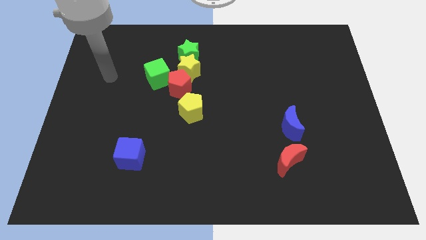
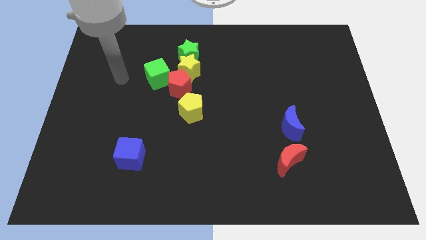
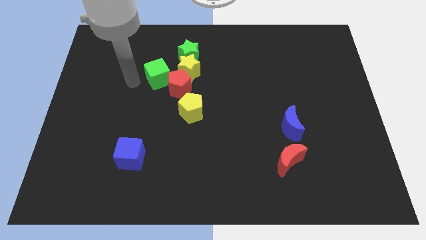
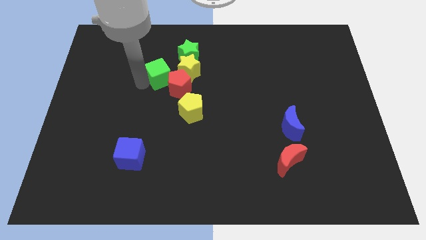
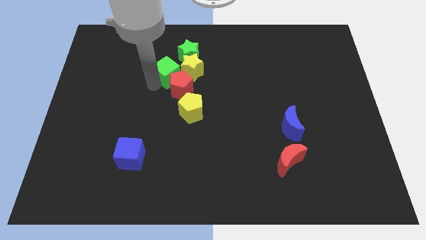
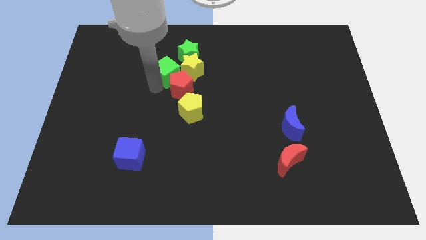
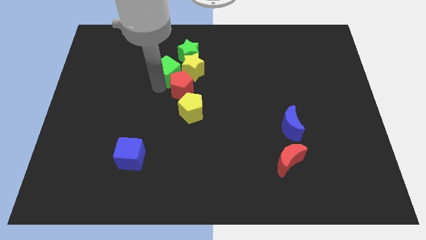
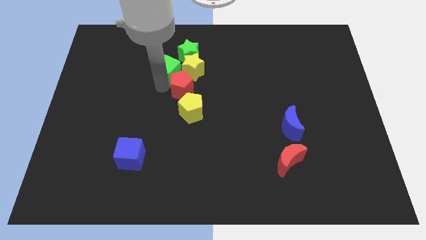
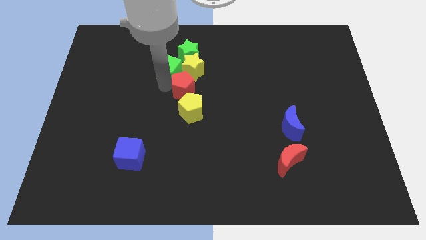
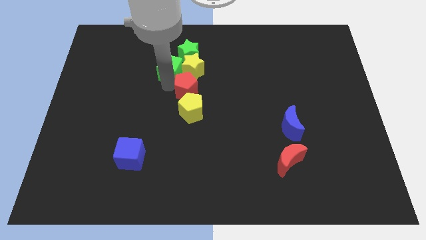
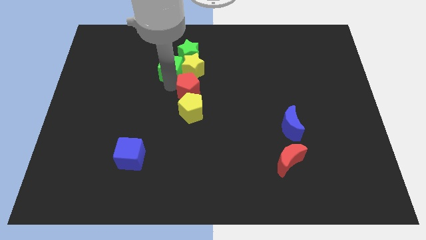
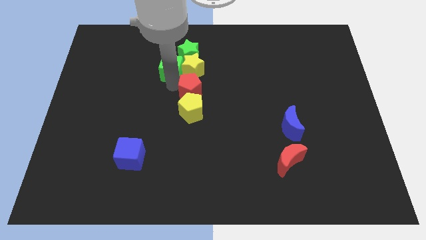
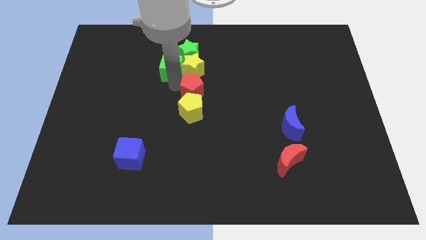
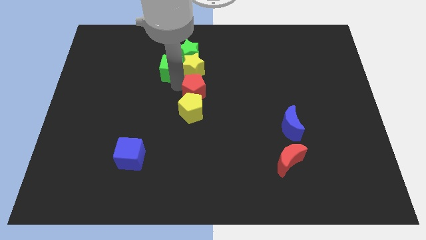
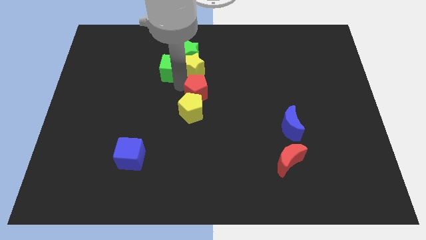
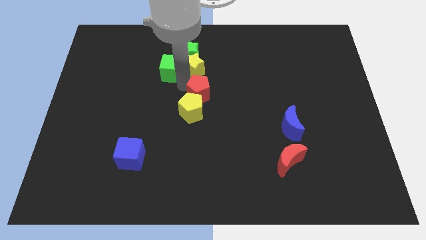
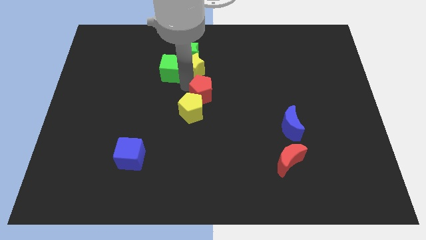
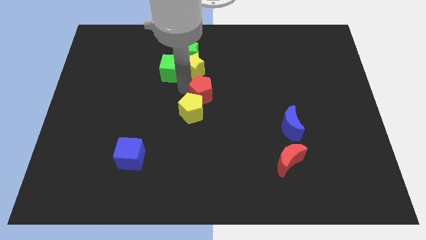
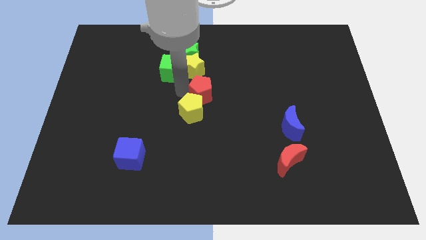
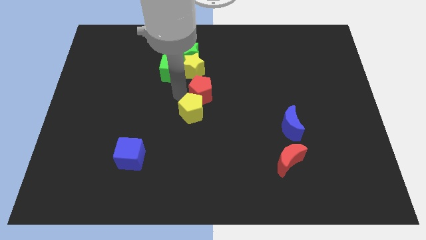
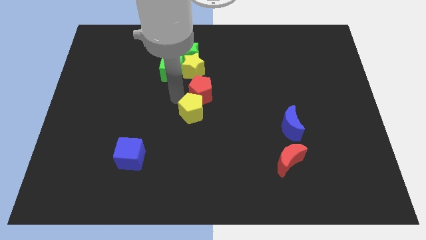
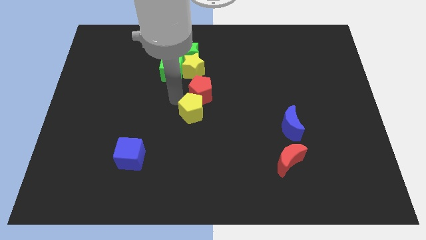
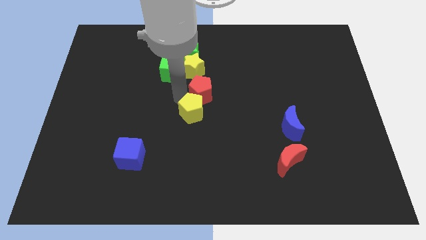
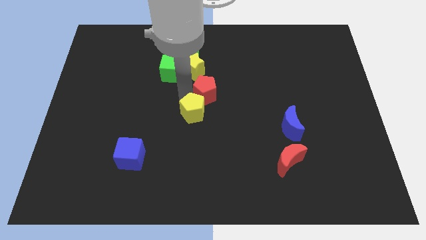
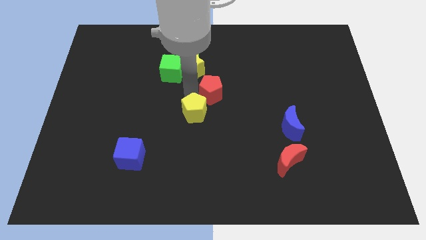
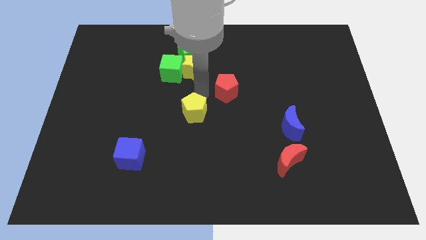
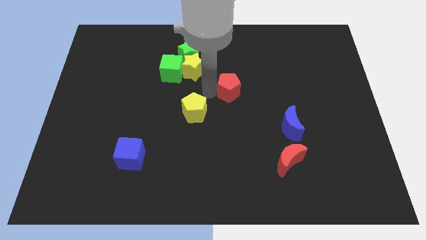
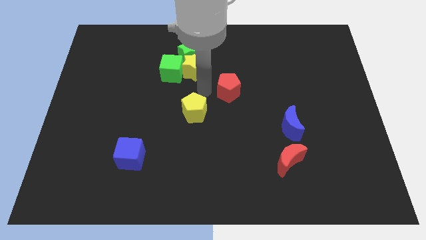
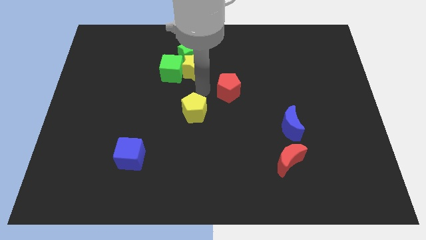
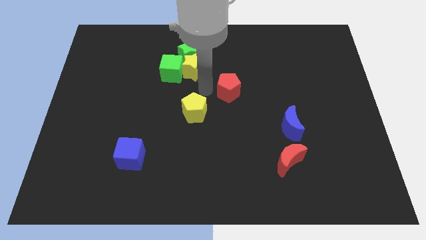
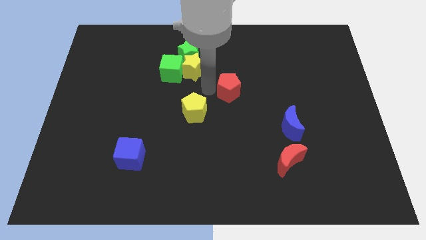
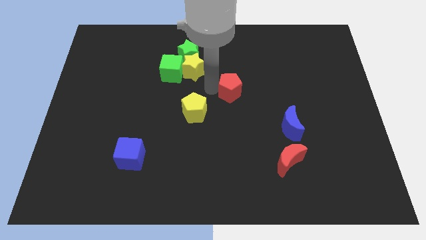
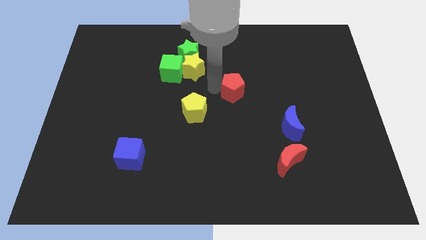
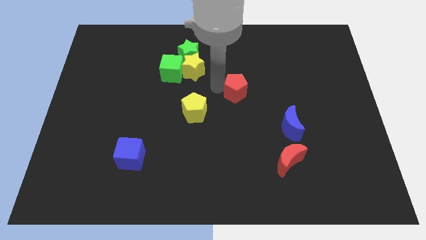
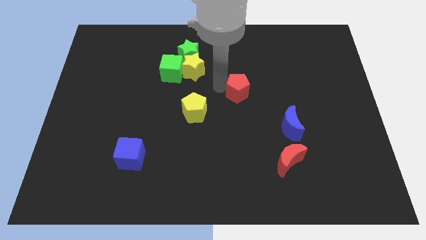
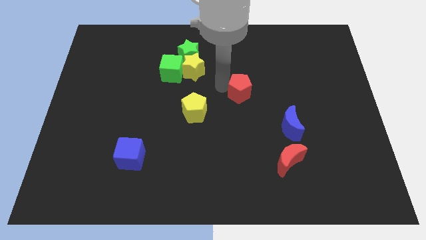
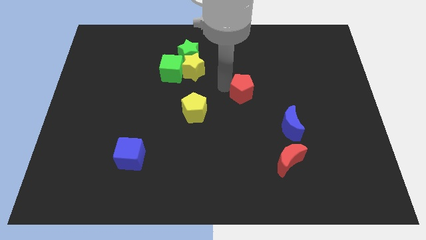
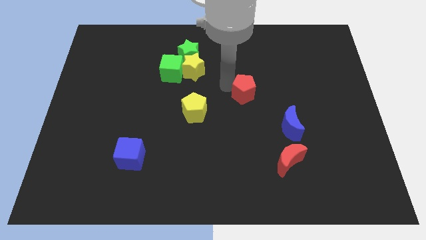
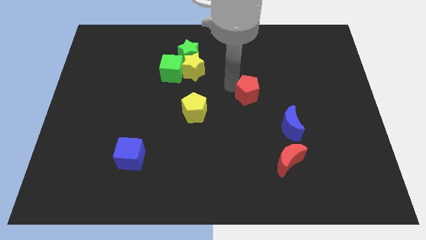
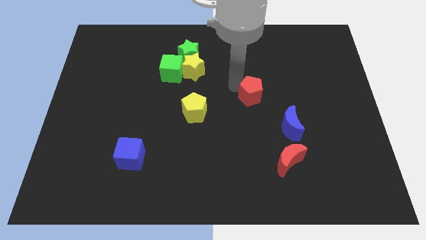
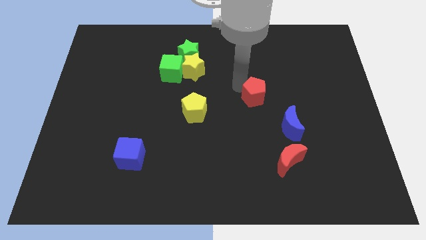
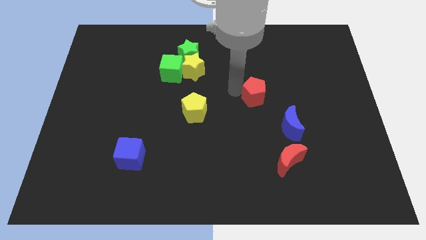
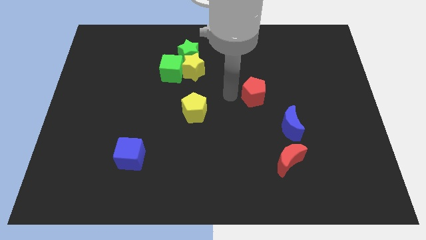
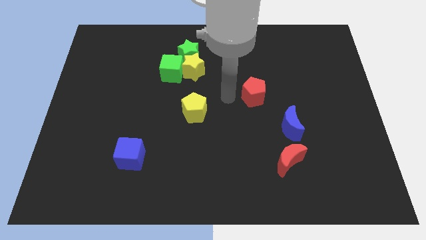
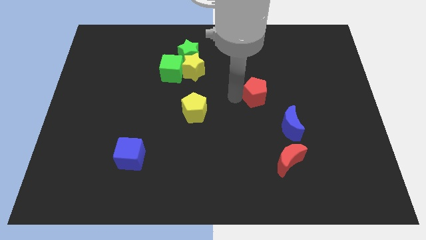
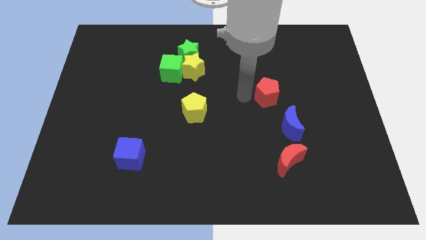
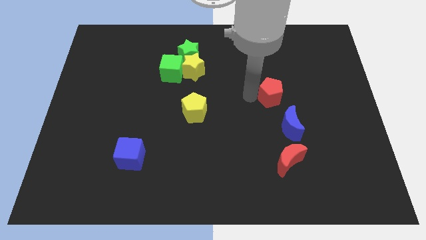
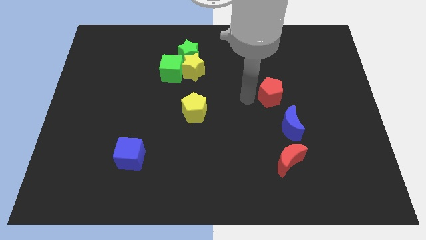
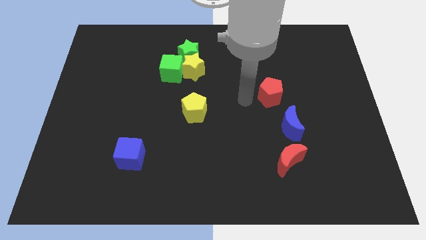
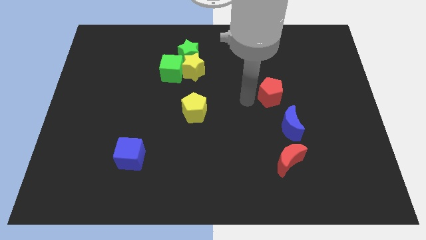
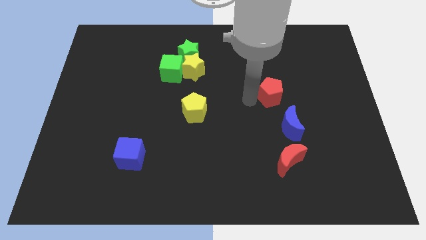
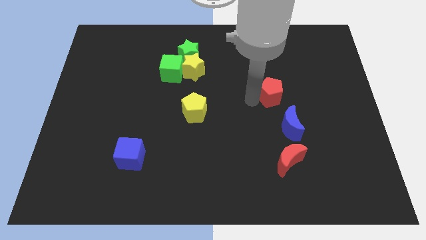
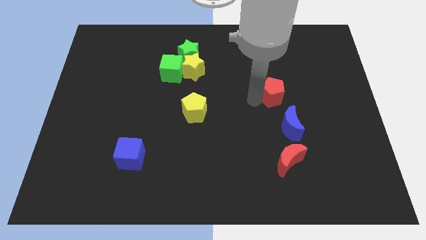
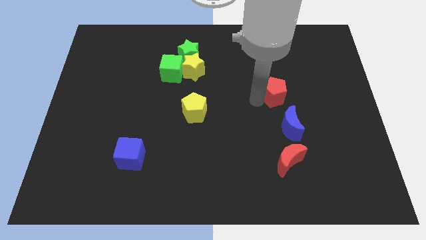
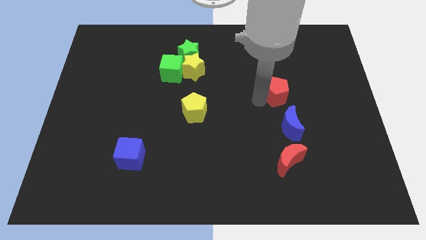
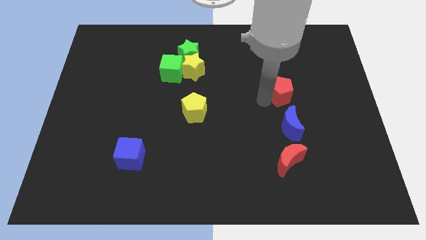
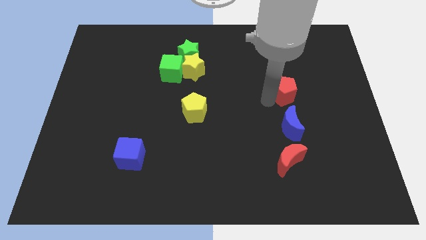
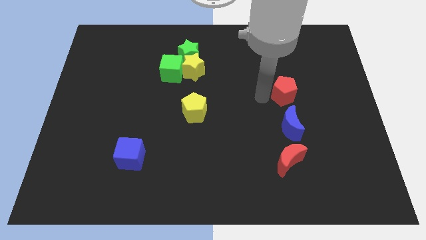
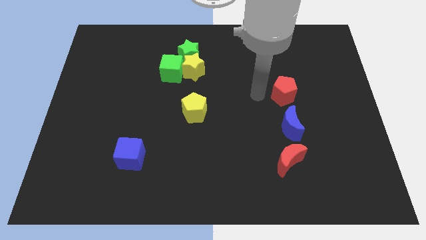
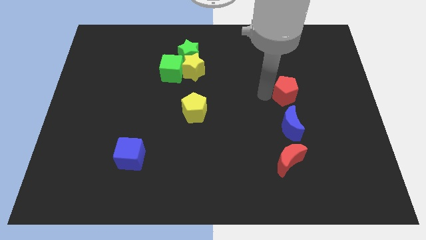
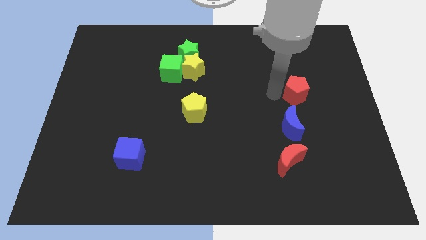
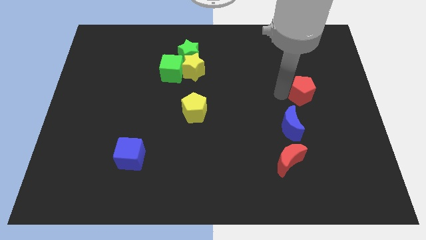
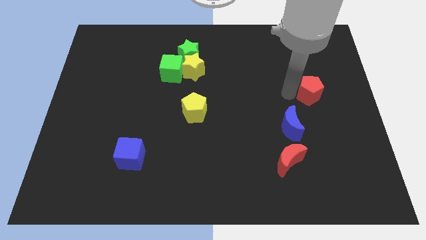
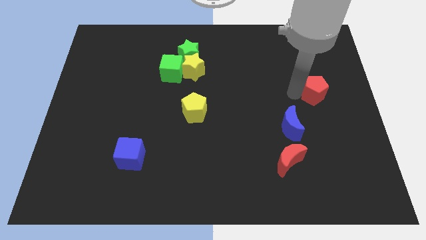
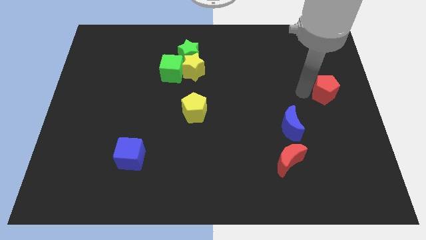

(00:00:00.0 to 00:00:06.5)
slide the red pentagon to the right side of the board
